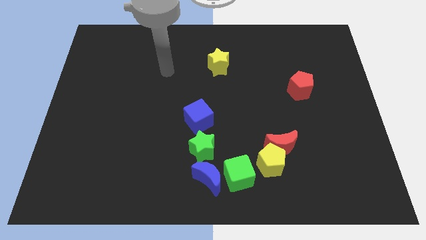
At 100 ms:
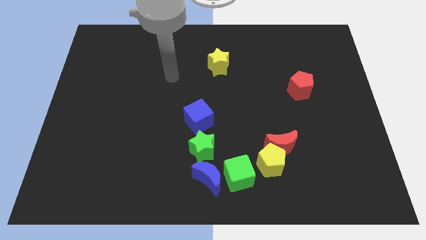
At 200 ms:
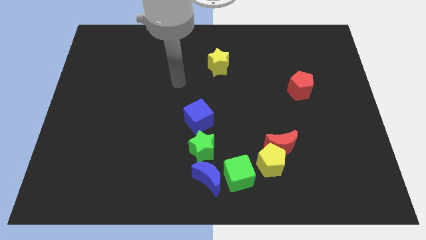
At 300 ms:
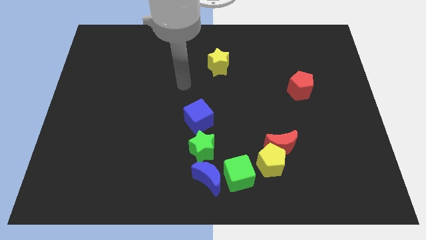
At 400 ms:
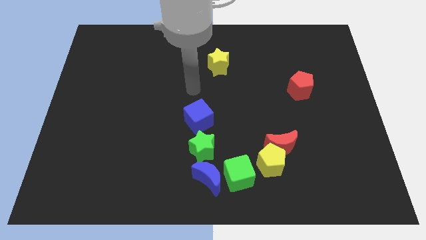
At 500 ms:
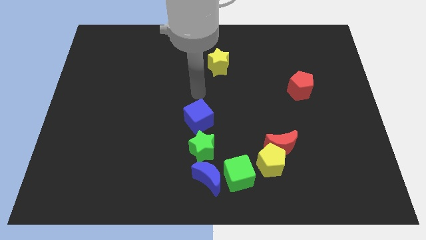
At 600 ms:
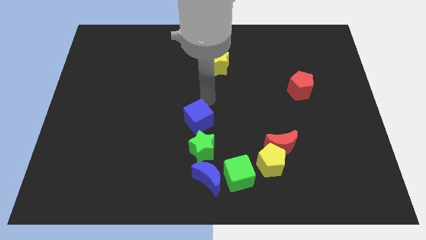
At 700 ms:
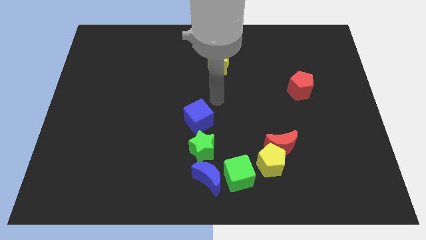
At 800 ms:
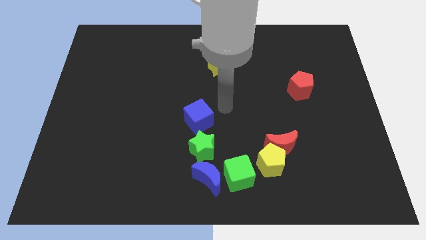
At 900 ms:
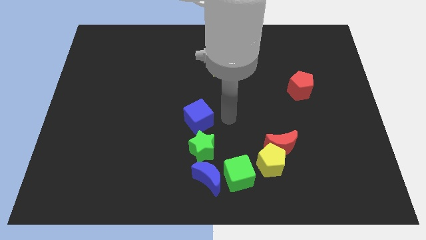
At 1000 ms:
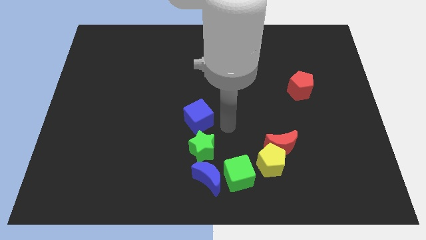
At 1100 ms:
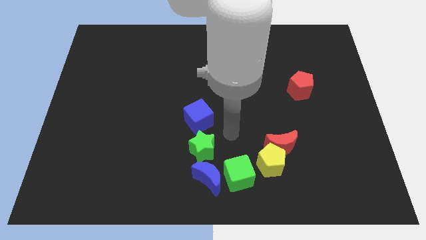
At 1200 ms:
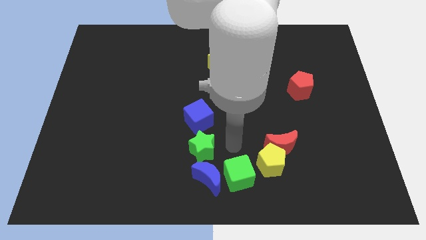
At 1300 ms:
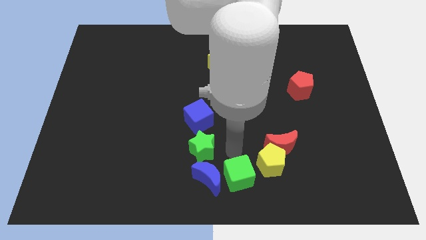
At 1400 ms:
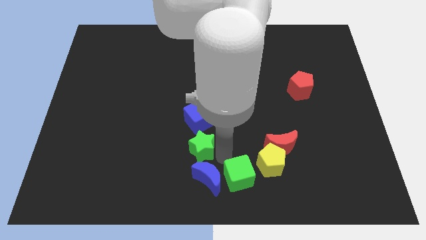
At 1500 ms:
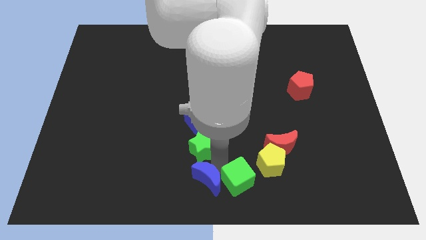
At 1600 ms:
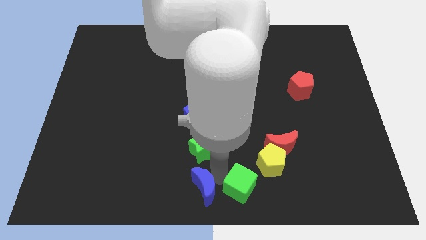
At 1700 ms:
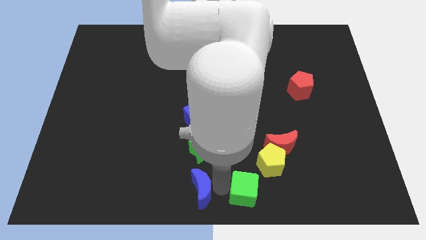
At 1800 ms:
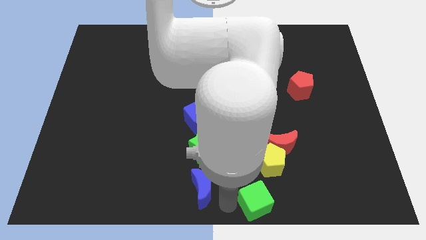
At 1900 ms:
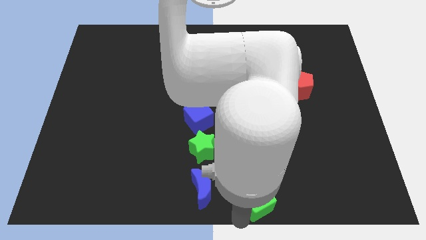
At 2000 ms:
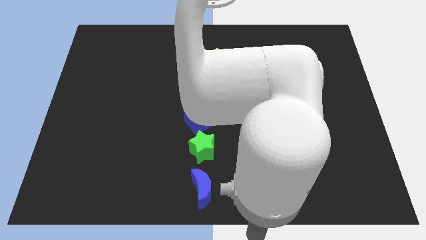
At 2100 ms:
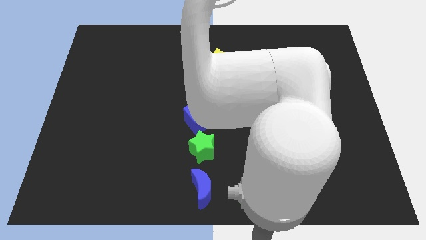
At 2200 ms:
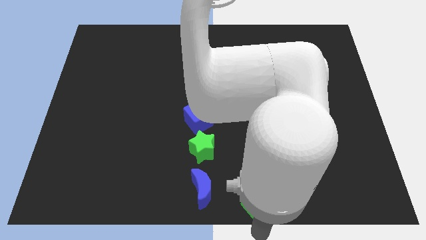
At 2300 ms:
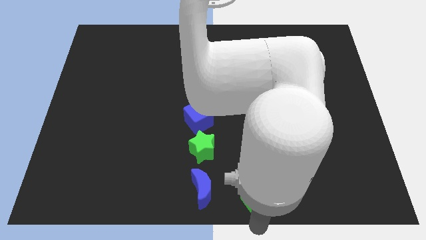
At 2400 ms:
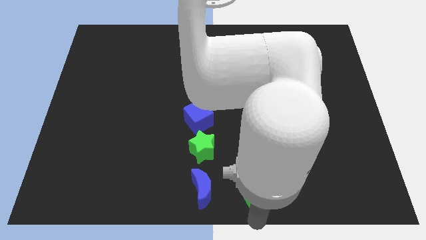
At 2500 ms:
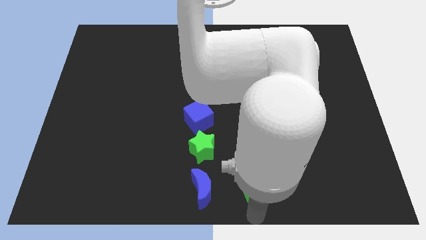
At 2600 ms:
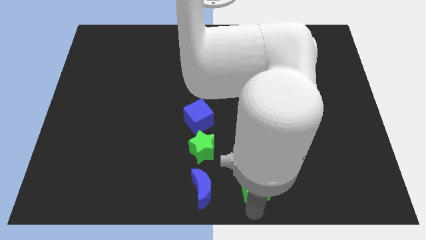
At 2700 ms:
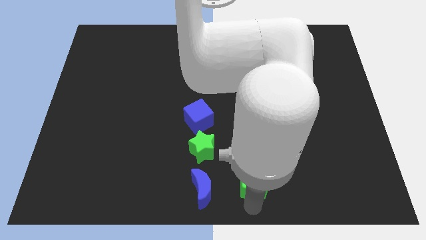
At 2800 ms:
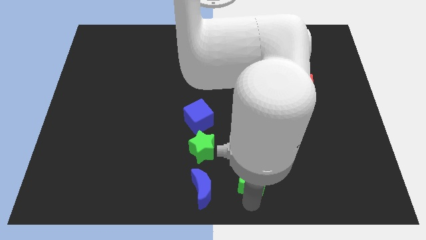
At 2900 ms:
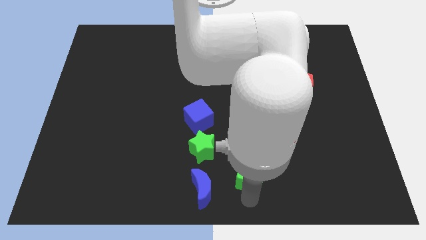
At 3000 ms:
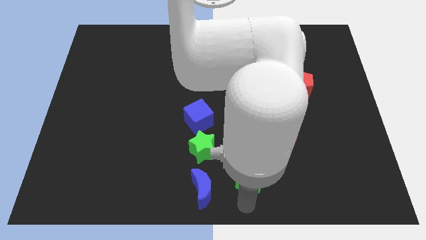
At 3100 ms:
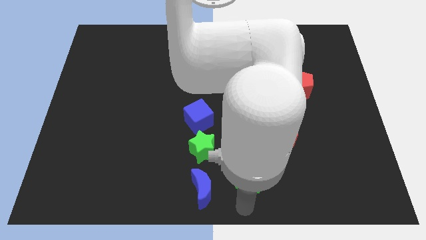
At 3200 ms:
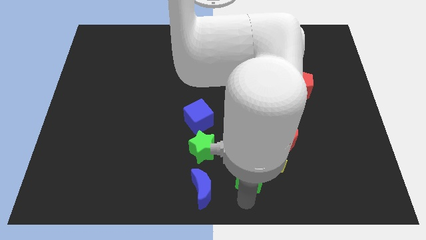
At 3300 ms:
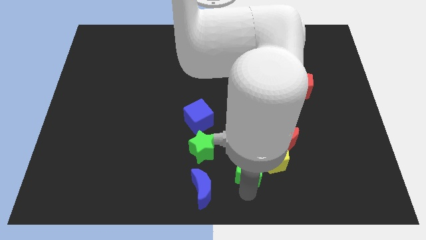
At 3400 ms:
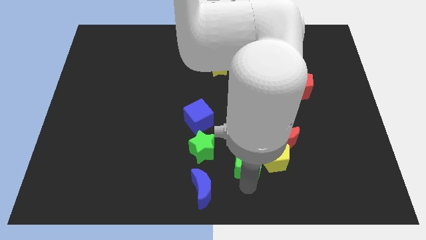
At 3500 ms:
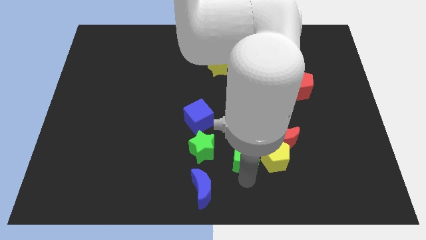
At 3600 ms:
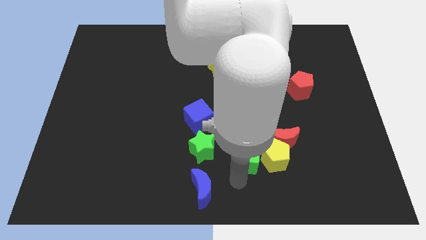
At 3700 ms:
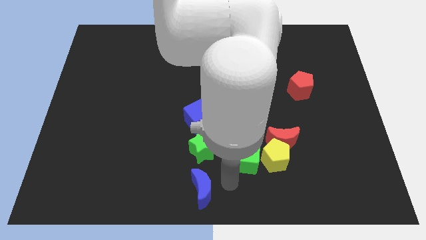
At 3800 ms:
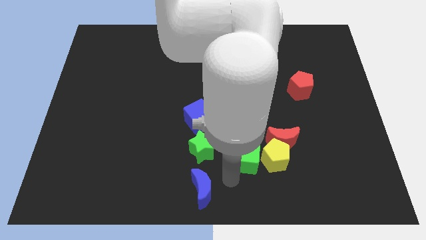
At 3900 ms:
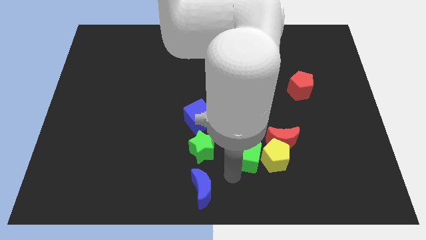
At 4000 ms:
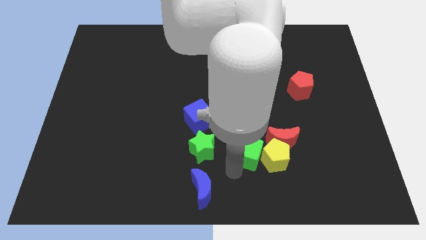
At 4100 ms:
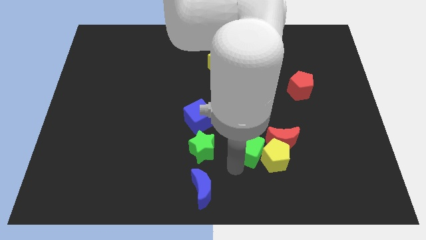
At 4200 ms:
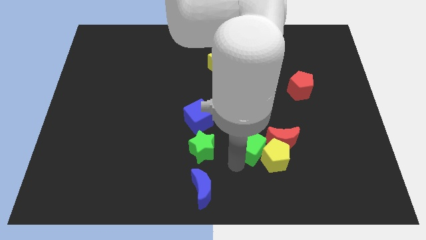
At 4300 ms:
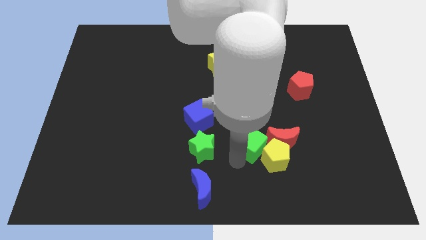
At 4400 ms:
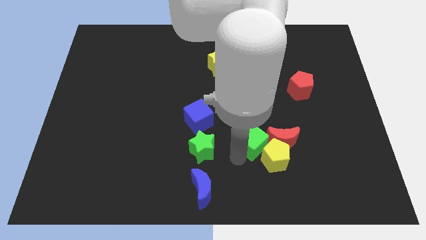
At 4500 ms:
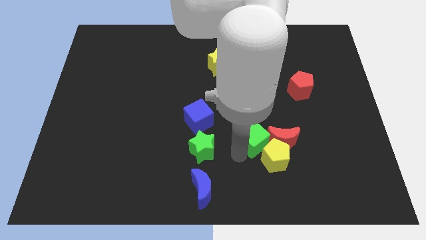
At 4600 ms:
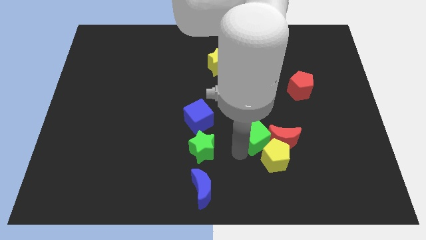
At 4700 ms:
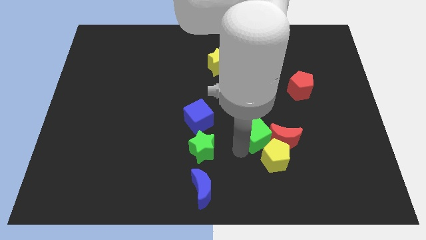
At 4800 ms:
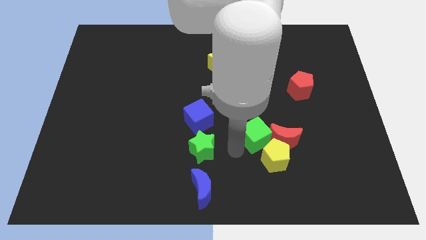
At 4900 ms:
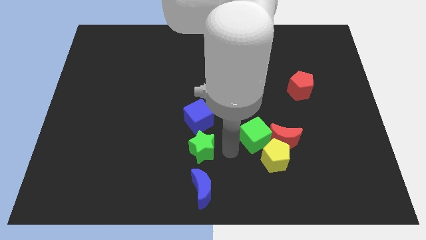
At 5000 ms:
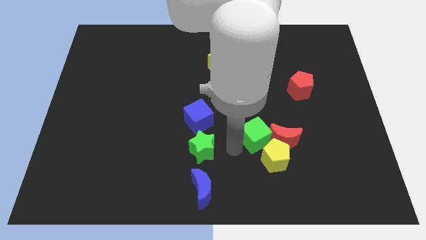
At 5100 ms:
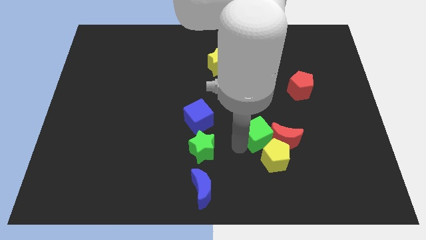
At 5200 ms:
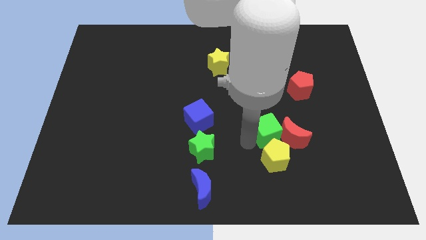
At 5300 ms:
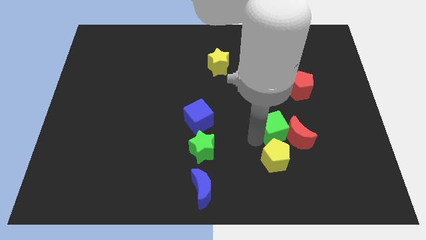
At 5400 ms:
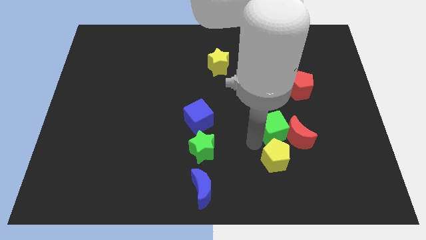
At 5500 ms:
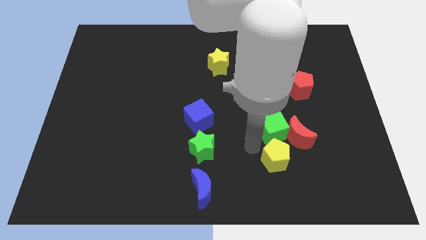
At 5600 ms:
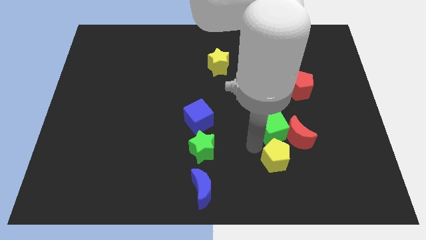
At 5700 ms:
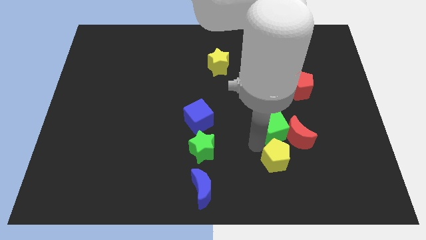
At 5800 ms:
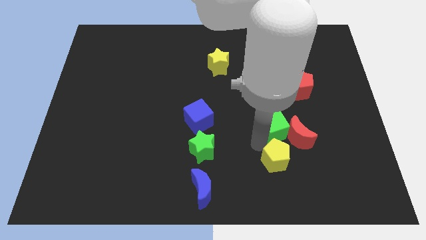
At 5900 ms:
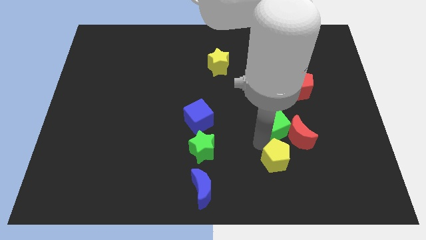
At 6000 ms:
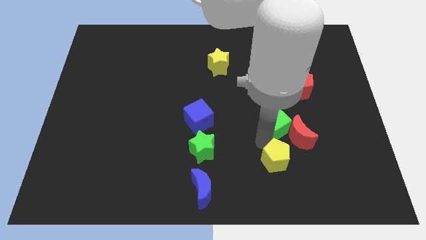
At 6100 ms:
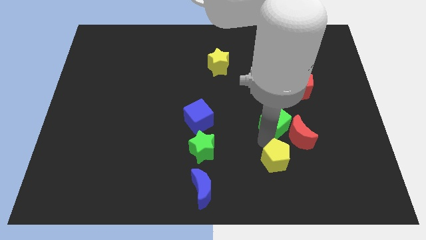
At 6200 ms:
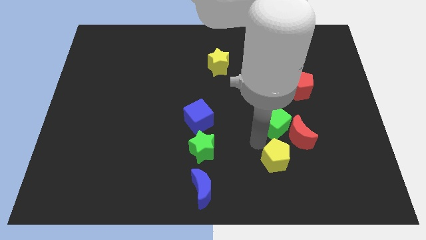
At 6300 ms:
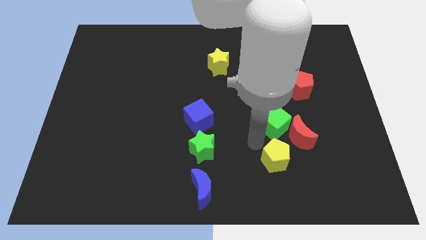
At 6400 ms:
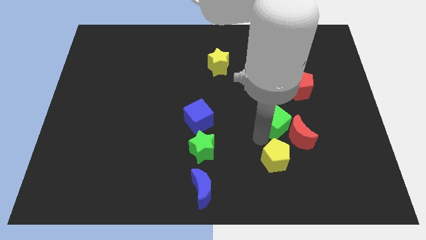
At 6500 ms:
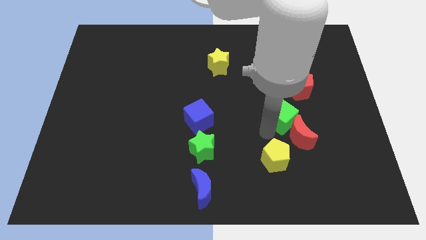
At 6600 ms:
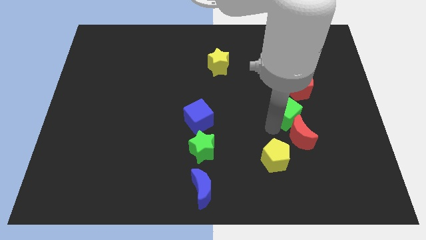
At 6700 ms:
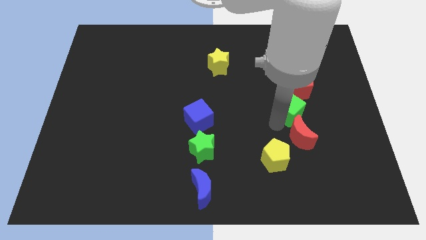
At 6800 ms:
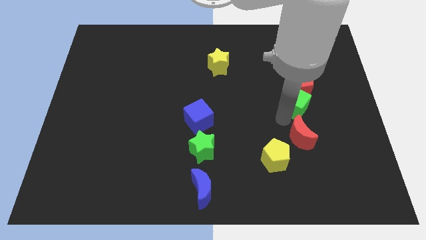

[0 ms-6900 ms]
move the green cube close to the red pentagon

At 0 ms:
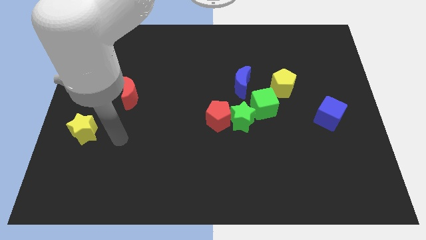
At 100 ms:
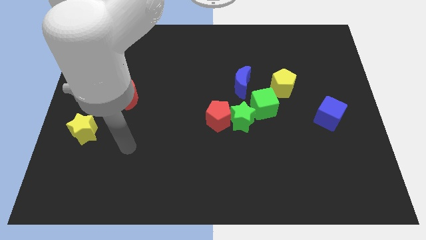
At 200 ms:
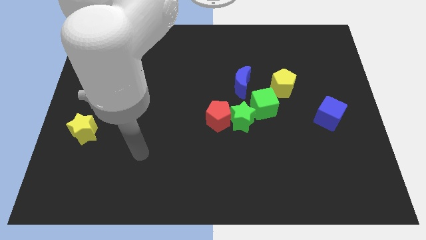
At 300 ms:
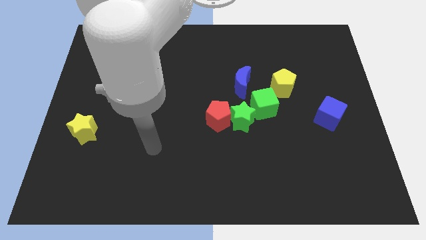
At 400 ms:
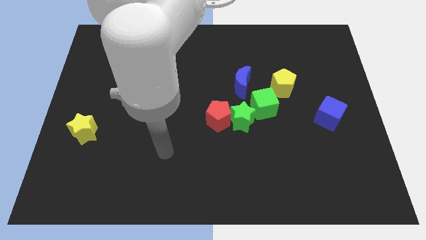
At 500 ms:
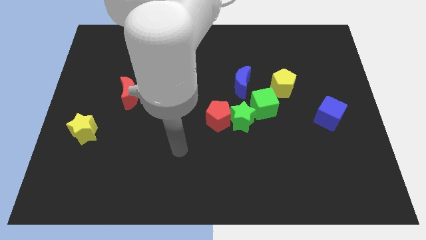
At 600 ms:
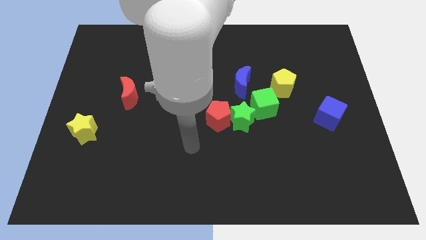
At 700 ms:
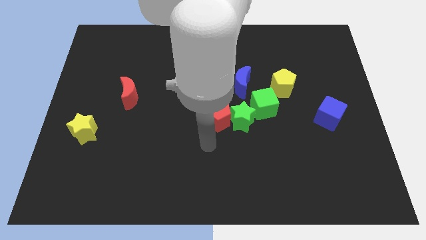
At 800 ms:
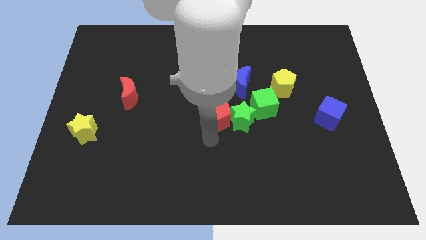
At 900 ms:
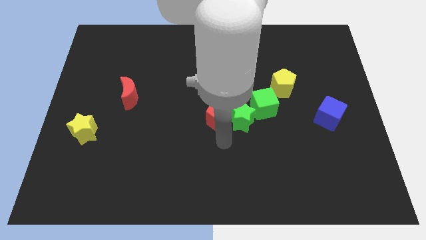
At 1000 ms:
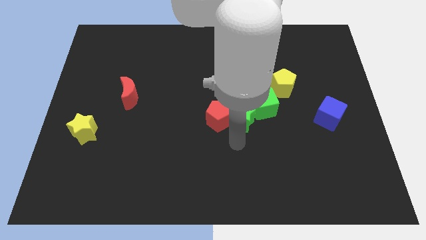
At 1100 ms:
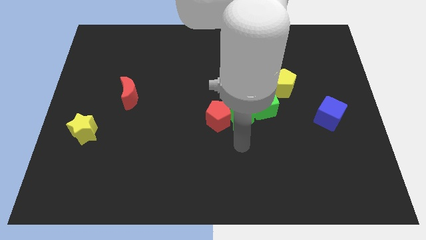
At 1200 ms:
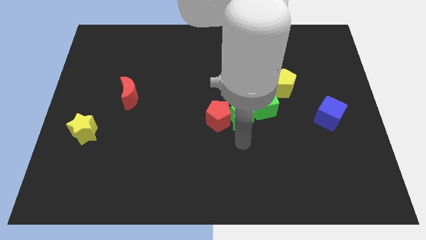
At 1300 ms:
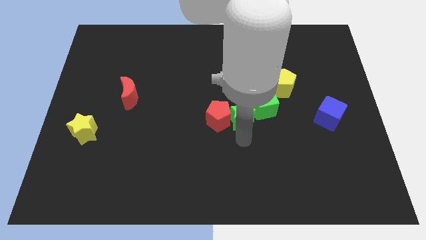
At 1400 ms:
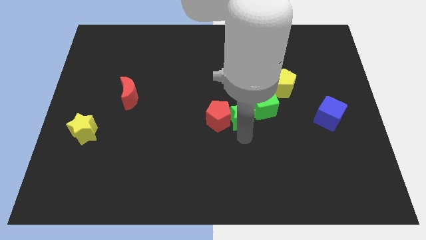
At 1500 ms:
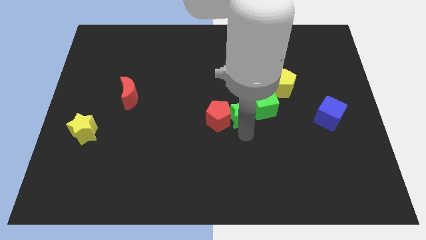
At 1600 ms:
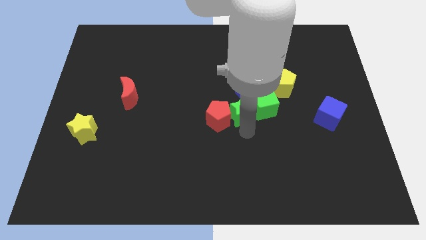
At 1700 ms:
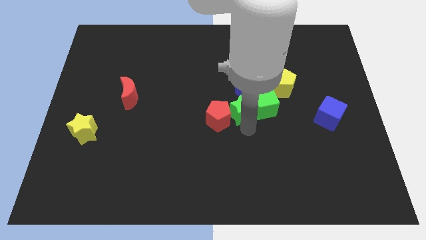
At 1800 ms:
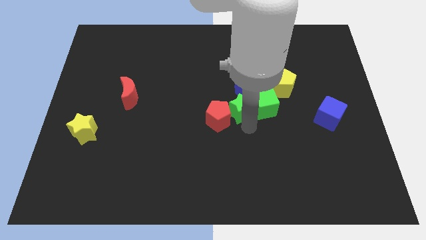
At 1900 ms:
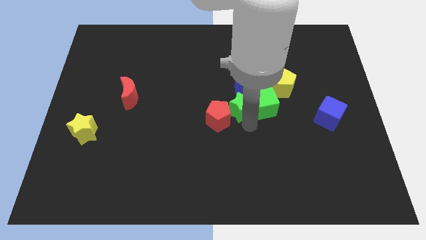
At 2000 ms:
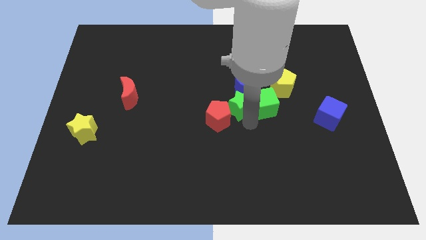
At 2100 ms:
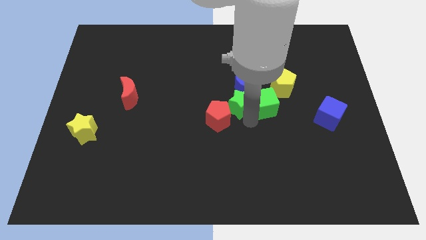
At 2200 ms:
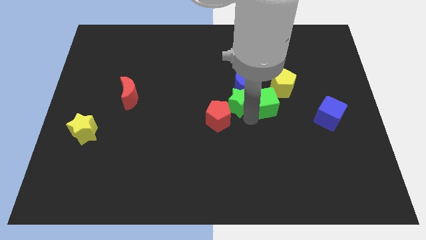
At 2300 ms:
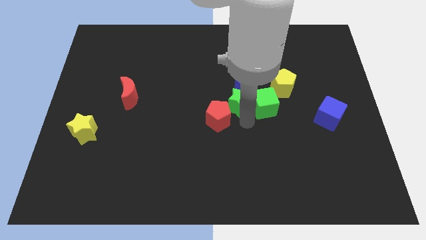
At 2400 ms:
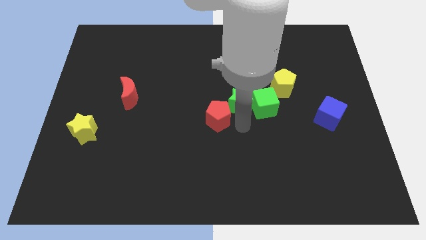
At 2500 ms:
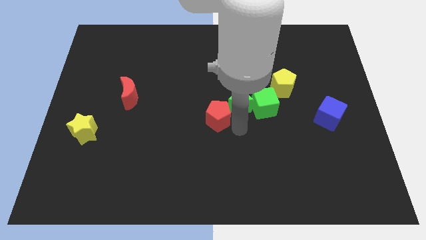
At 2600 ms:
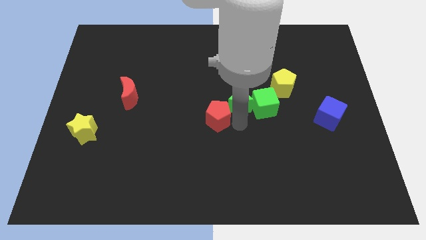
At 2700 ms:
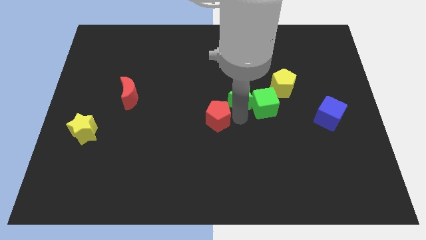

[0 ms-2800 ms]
push the green star to the blue moon
